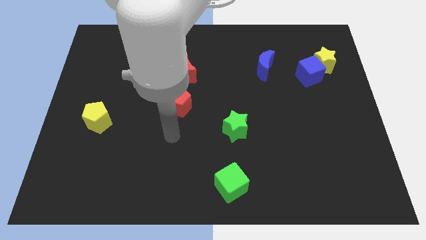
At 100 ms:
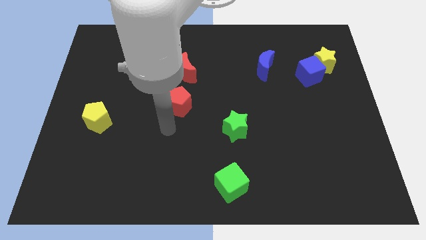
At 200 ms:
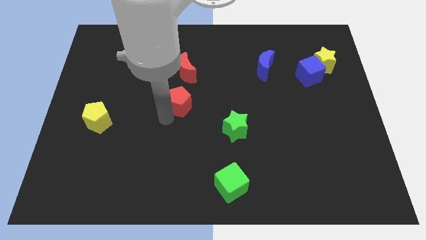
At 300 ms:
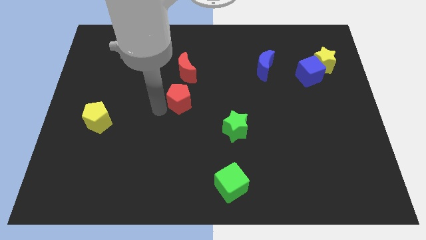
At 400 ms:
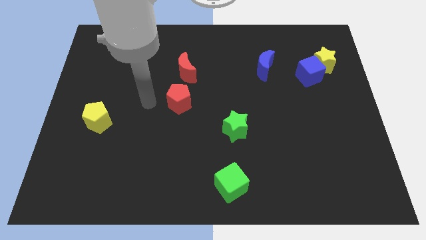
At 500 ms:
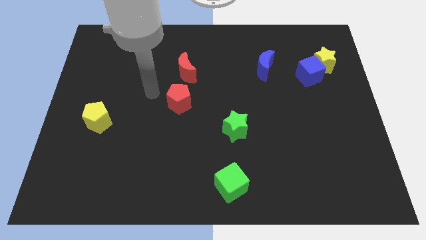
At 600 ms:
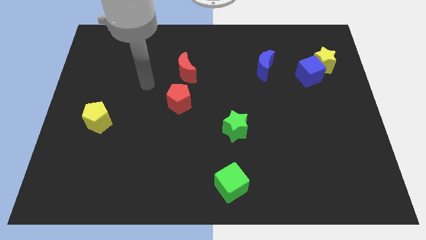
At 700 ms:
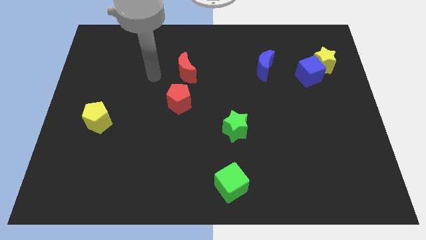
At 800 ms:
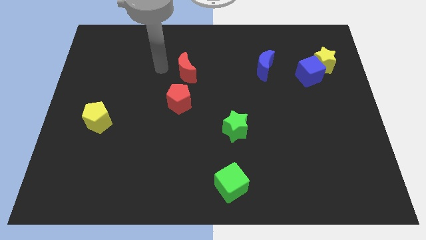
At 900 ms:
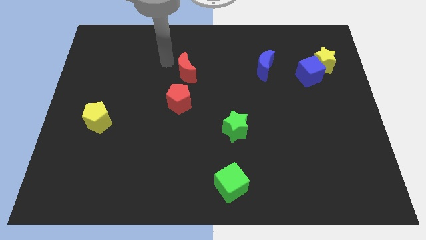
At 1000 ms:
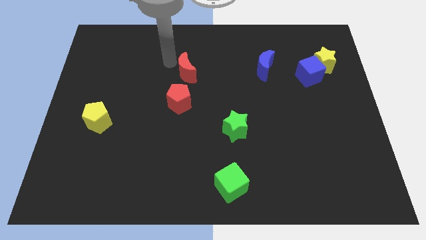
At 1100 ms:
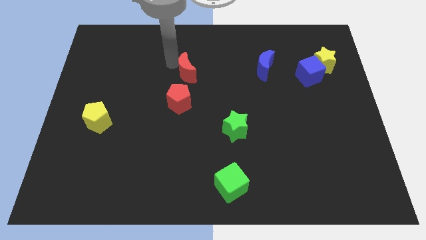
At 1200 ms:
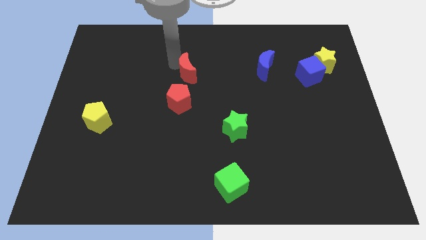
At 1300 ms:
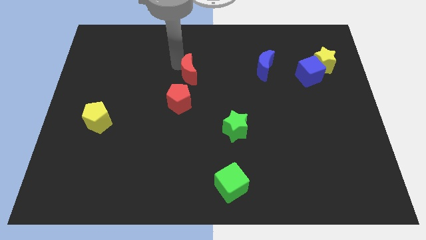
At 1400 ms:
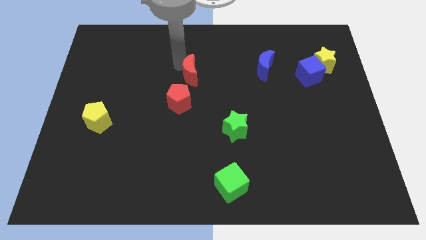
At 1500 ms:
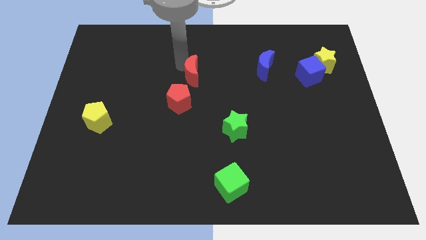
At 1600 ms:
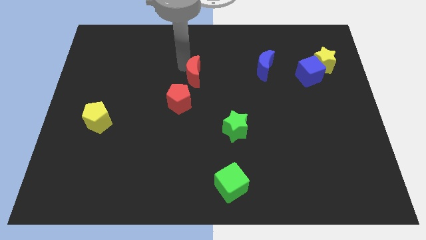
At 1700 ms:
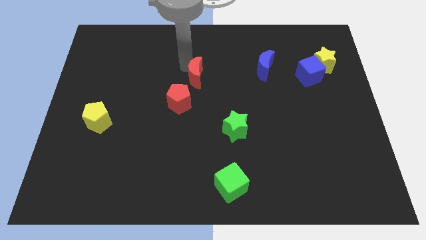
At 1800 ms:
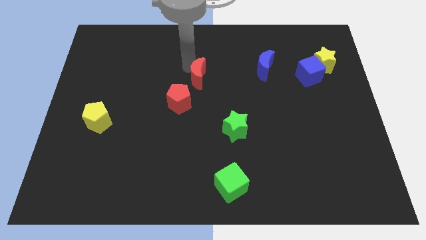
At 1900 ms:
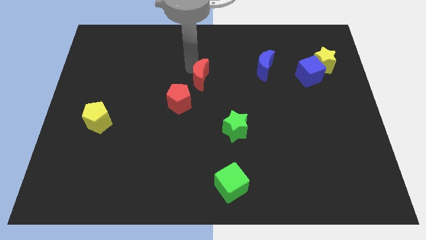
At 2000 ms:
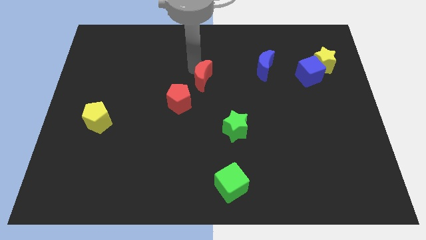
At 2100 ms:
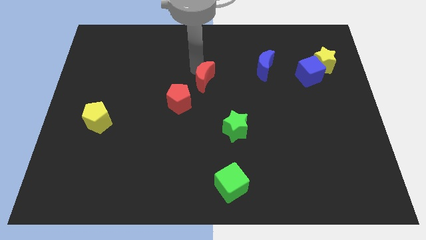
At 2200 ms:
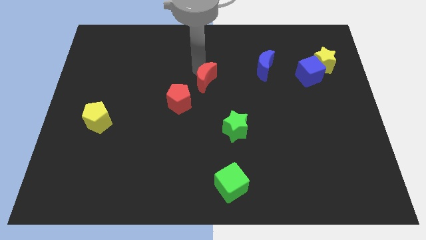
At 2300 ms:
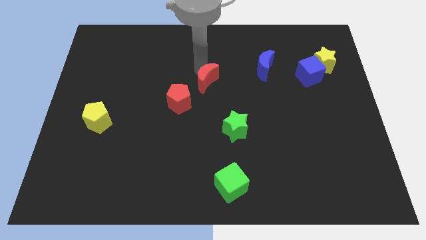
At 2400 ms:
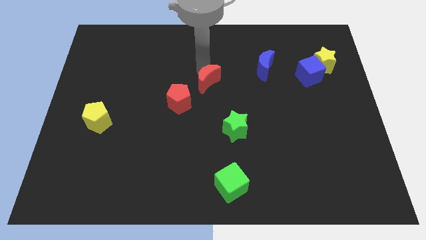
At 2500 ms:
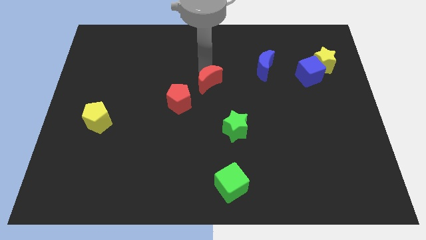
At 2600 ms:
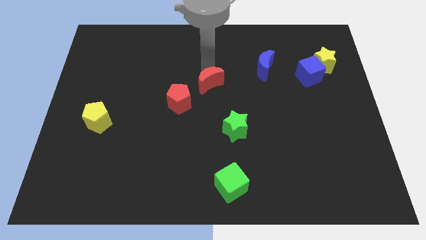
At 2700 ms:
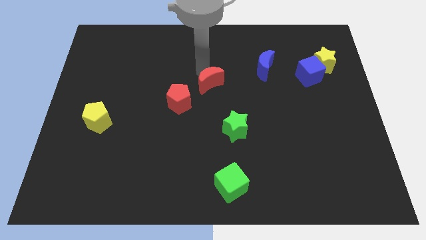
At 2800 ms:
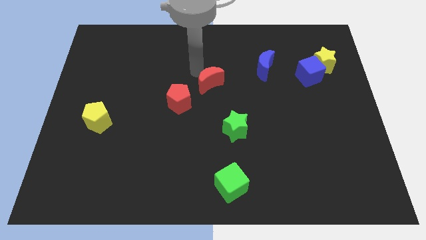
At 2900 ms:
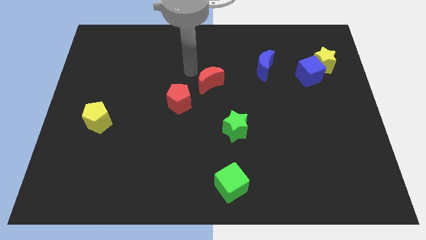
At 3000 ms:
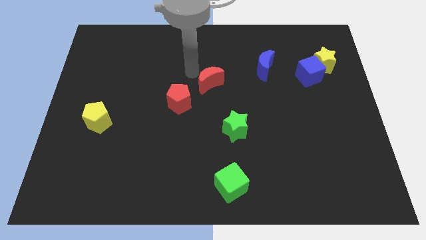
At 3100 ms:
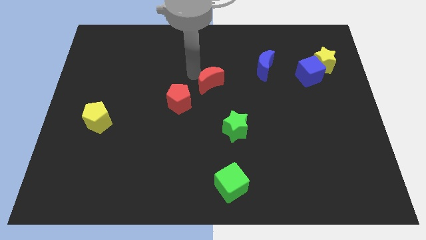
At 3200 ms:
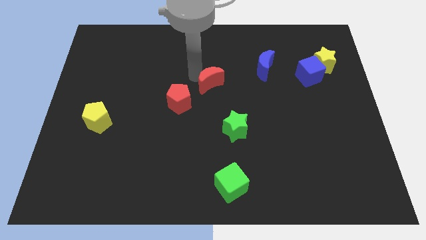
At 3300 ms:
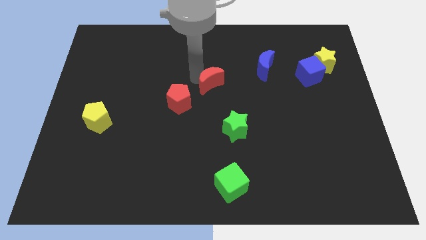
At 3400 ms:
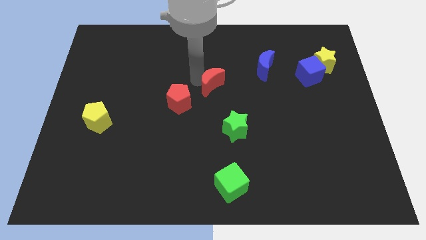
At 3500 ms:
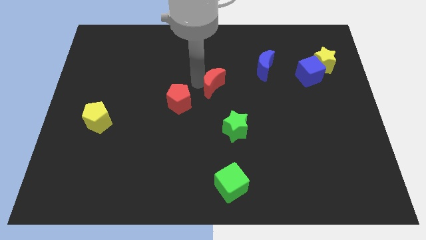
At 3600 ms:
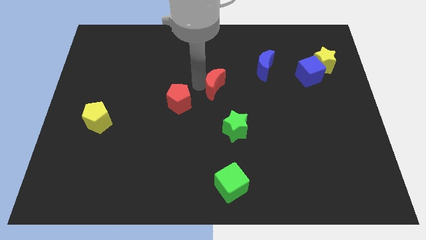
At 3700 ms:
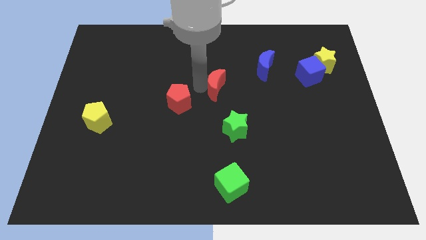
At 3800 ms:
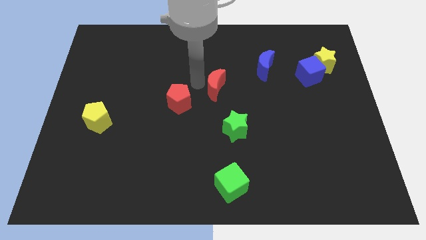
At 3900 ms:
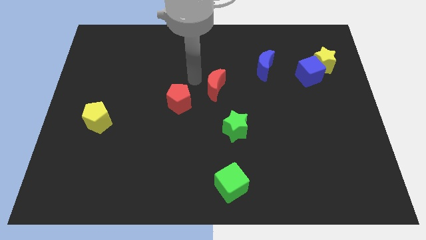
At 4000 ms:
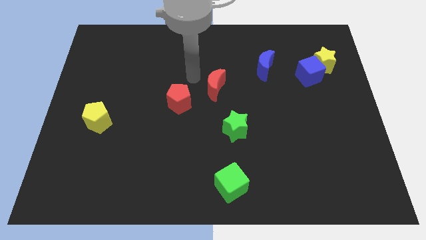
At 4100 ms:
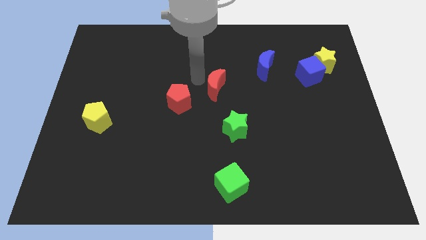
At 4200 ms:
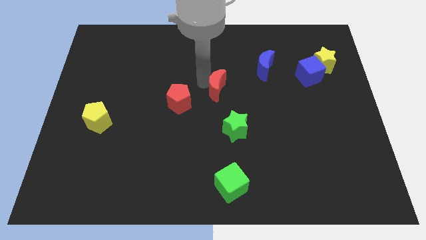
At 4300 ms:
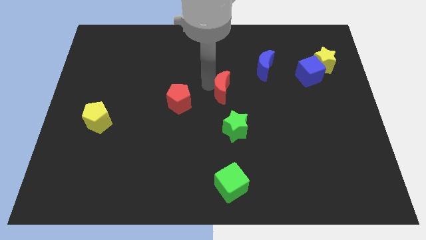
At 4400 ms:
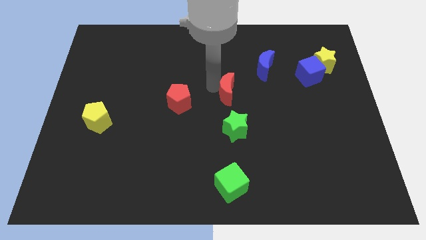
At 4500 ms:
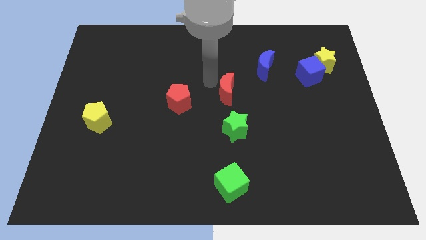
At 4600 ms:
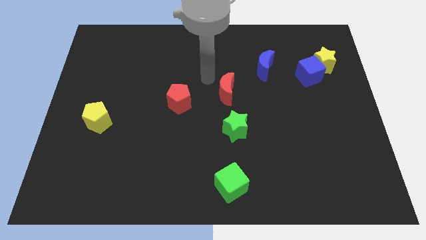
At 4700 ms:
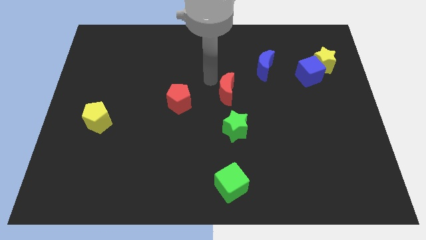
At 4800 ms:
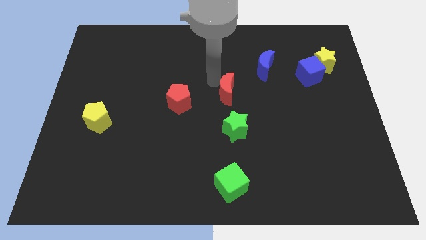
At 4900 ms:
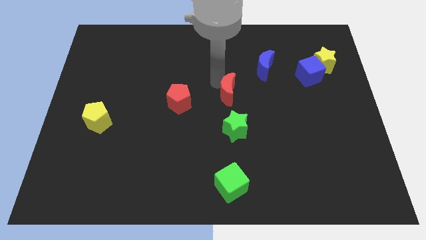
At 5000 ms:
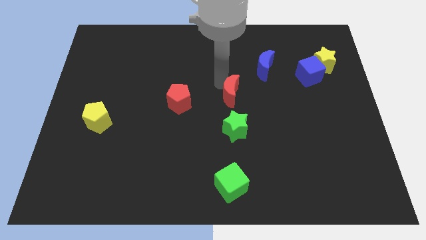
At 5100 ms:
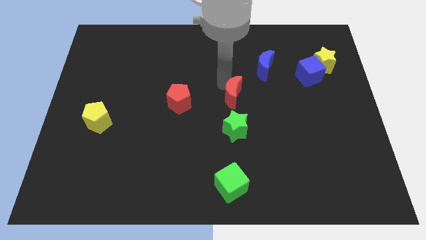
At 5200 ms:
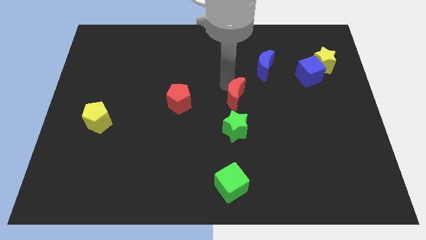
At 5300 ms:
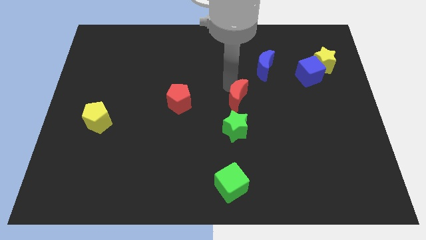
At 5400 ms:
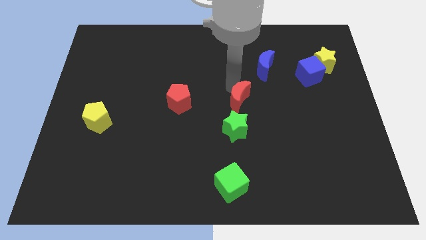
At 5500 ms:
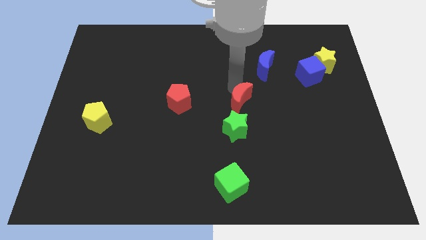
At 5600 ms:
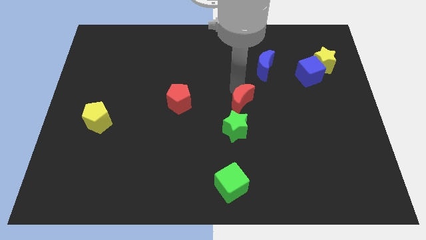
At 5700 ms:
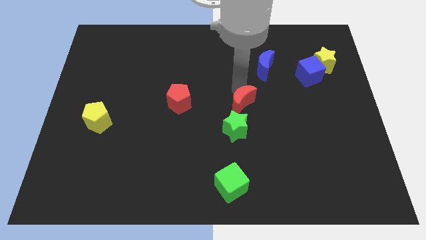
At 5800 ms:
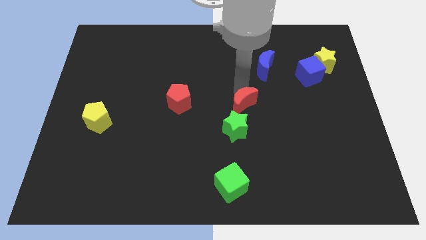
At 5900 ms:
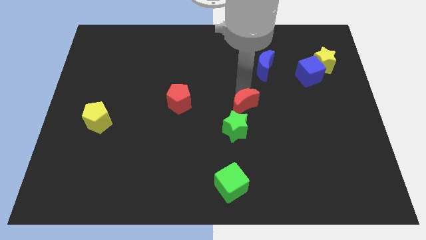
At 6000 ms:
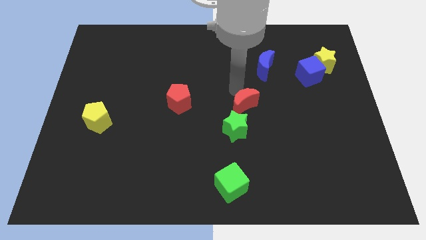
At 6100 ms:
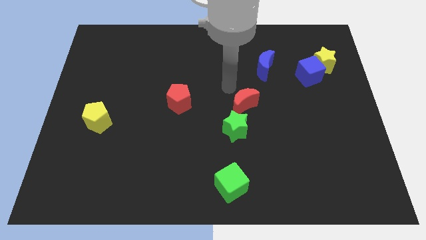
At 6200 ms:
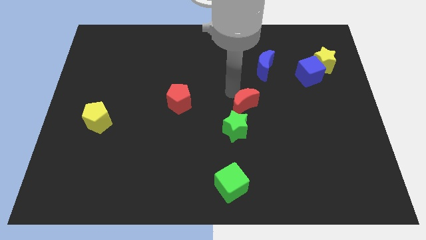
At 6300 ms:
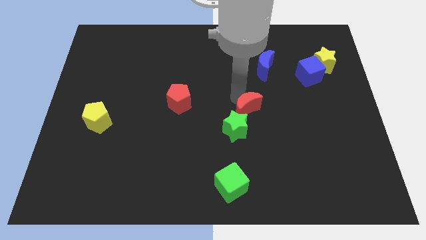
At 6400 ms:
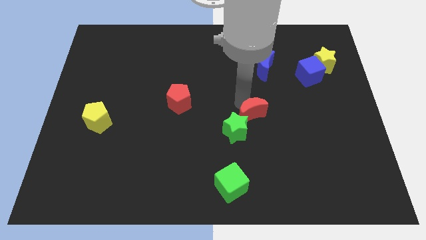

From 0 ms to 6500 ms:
move the red moon down and then right

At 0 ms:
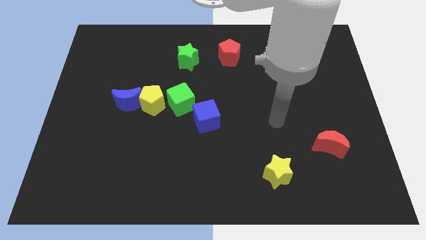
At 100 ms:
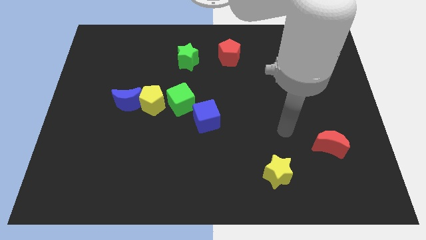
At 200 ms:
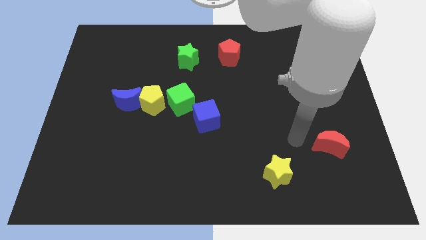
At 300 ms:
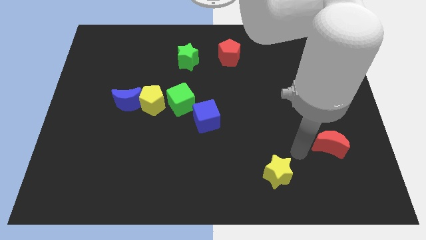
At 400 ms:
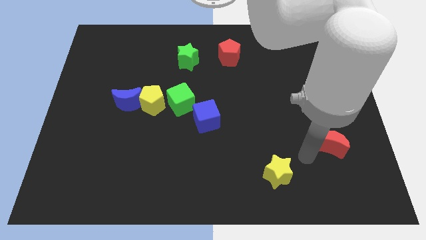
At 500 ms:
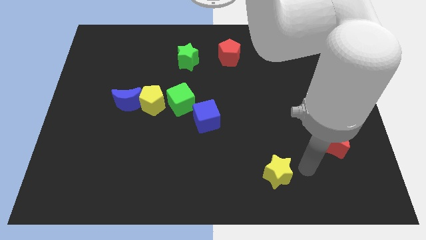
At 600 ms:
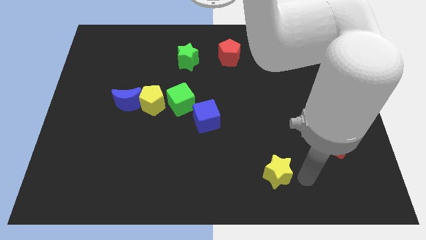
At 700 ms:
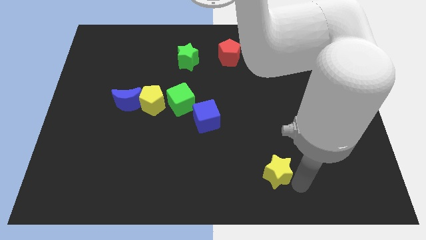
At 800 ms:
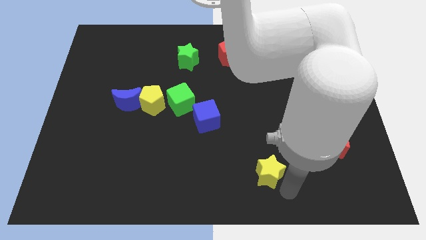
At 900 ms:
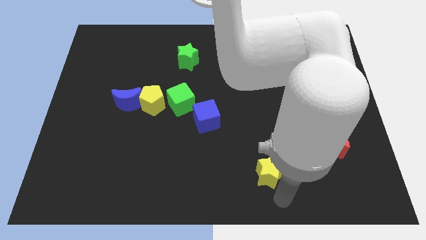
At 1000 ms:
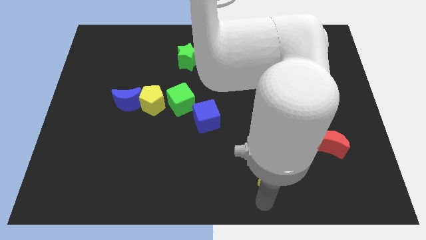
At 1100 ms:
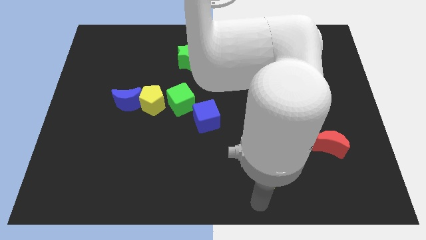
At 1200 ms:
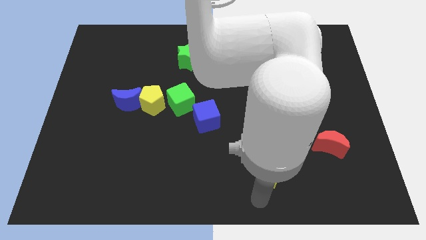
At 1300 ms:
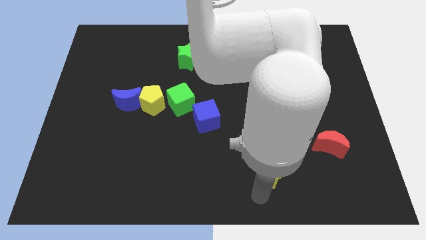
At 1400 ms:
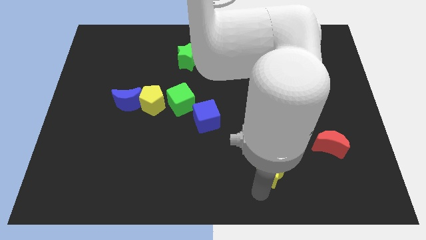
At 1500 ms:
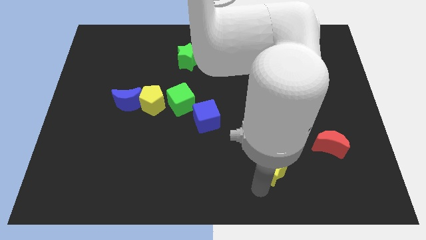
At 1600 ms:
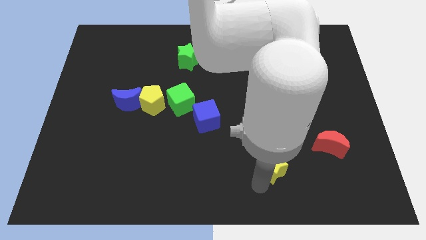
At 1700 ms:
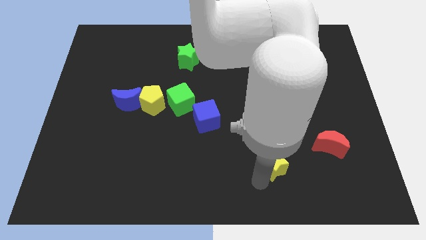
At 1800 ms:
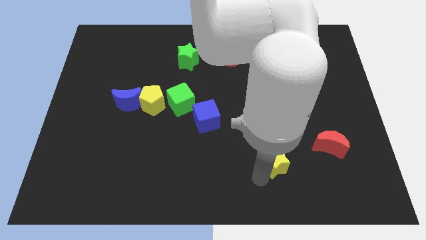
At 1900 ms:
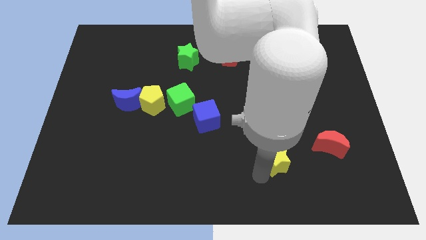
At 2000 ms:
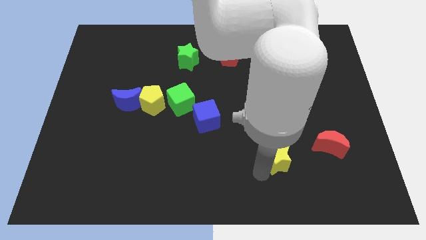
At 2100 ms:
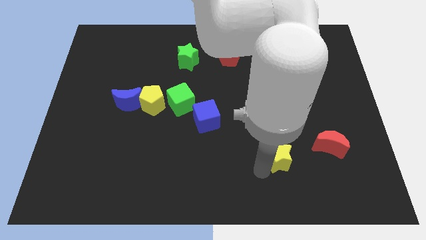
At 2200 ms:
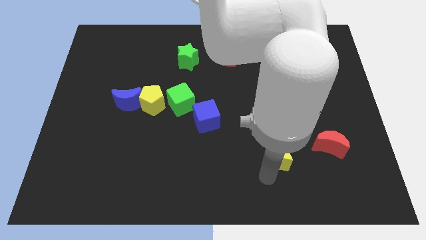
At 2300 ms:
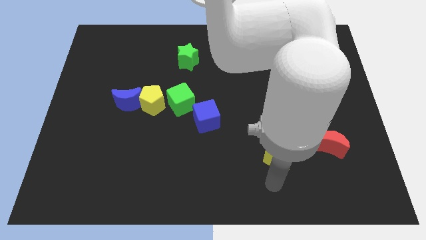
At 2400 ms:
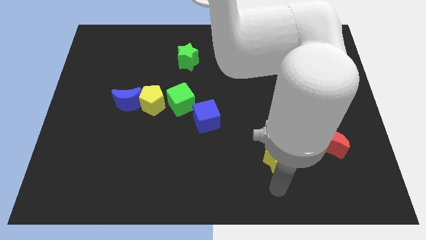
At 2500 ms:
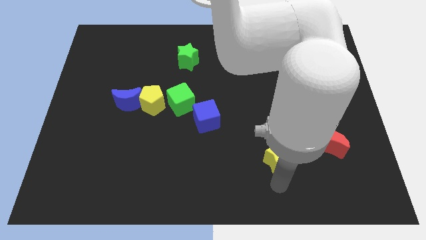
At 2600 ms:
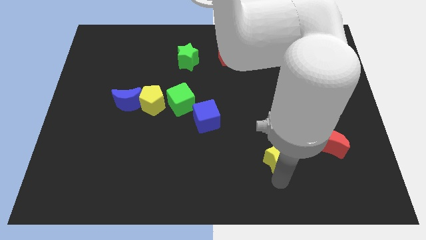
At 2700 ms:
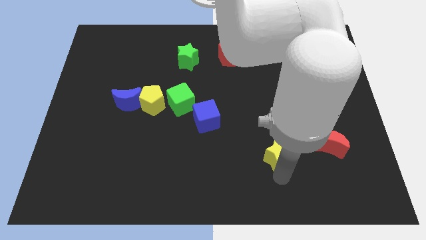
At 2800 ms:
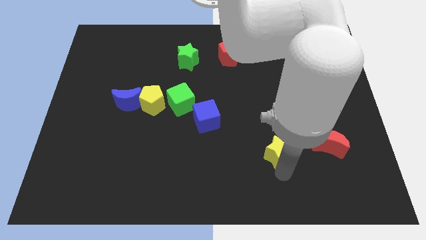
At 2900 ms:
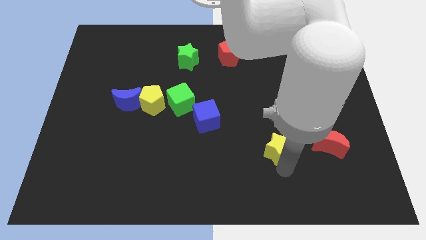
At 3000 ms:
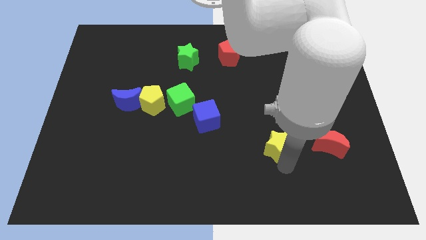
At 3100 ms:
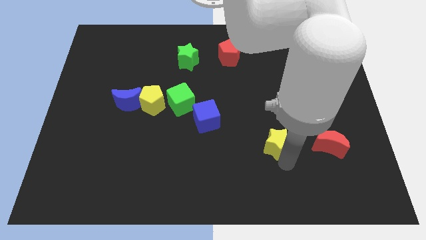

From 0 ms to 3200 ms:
push the yellow star a bit up
